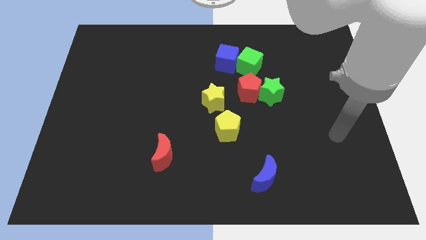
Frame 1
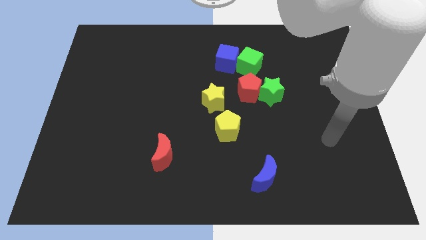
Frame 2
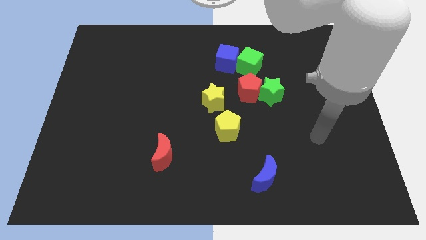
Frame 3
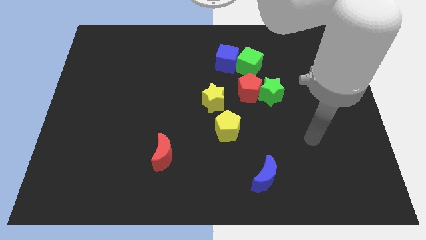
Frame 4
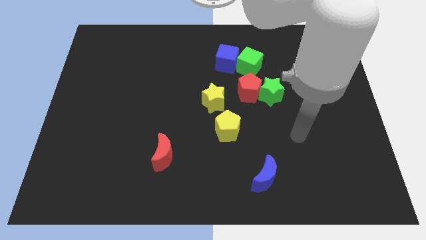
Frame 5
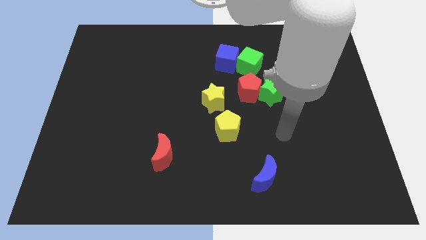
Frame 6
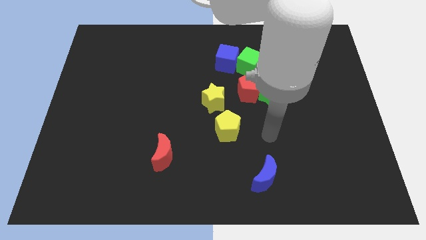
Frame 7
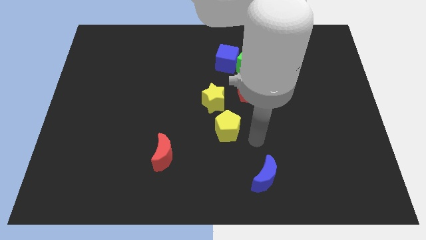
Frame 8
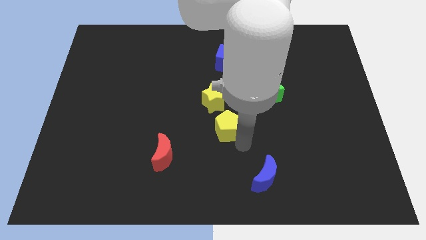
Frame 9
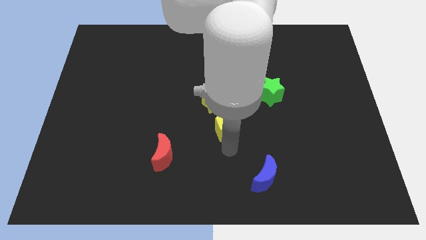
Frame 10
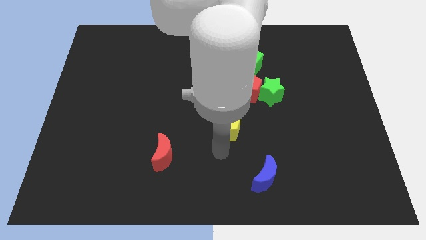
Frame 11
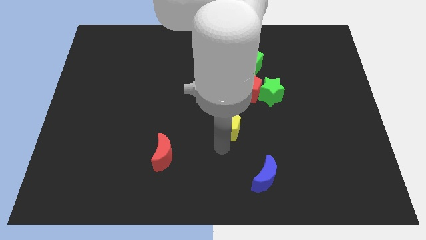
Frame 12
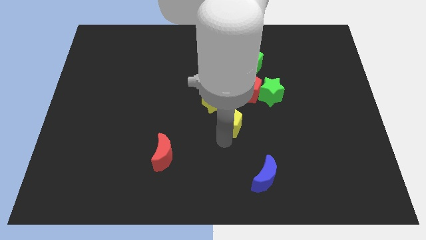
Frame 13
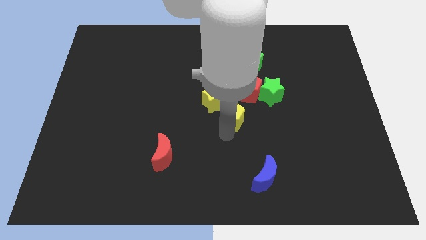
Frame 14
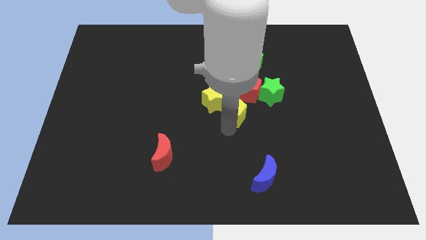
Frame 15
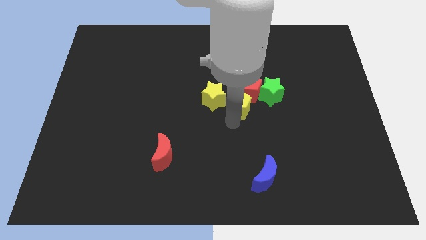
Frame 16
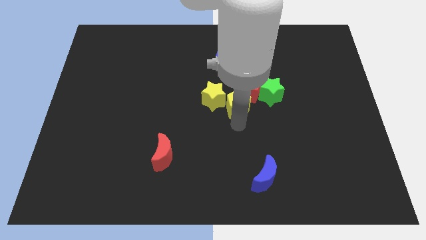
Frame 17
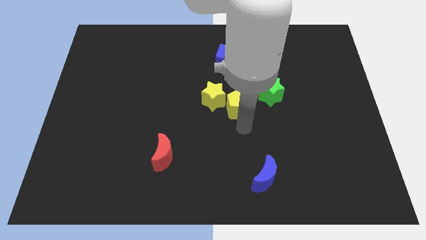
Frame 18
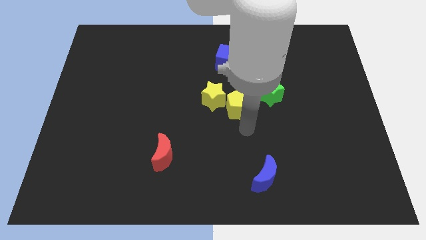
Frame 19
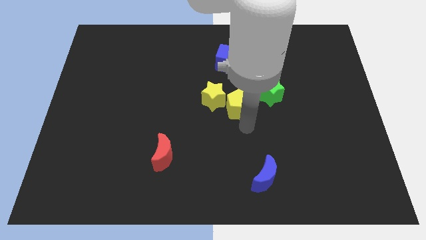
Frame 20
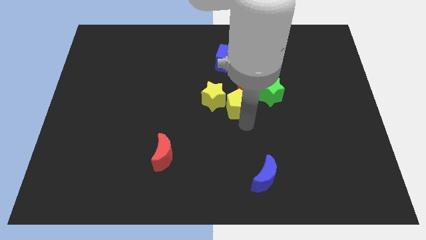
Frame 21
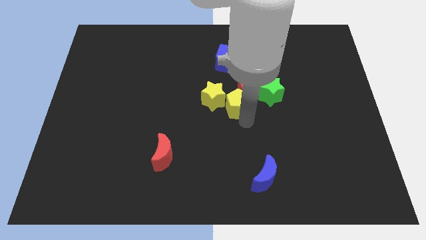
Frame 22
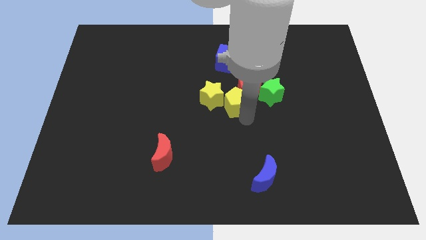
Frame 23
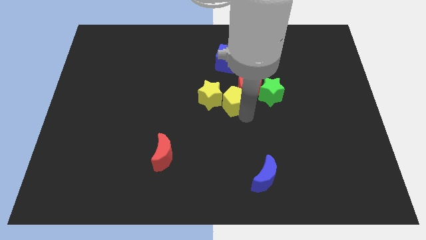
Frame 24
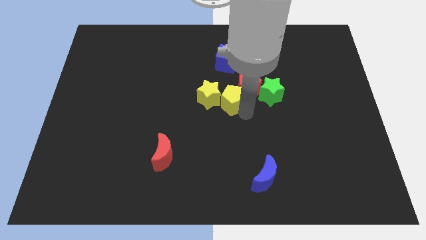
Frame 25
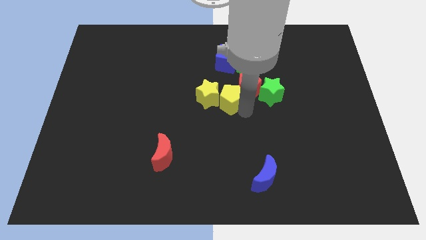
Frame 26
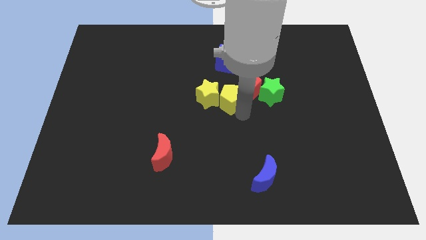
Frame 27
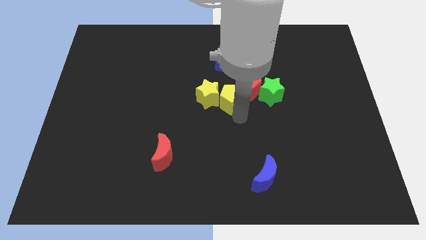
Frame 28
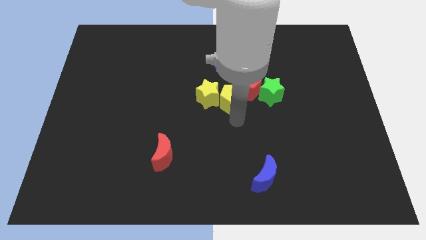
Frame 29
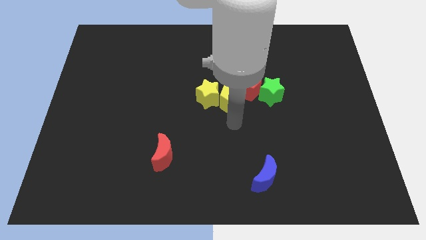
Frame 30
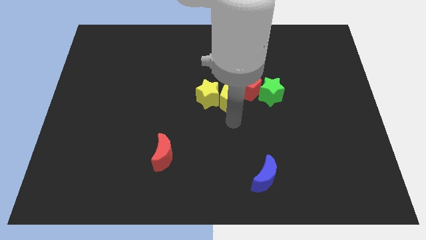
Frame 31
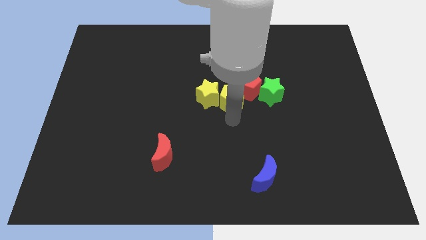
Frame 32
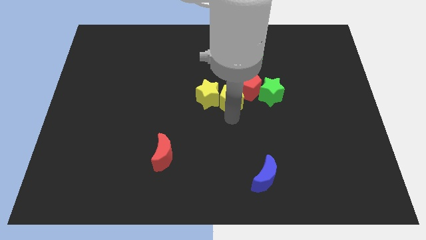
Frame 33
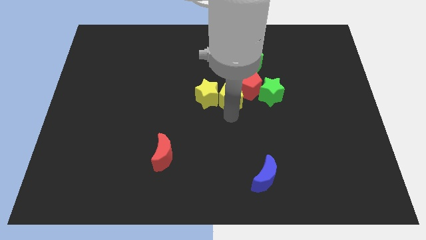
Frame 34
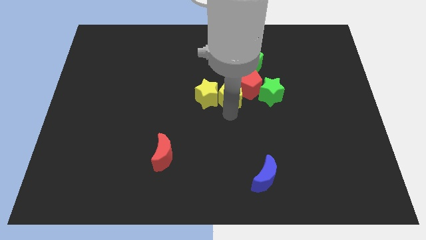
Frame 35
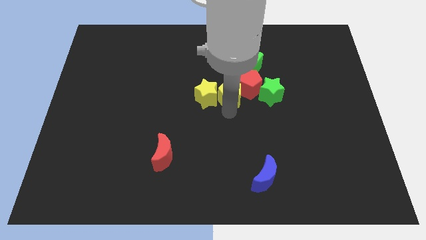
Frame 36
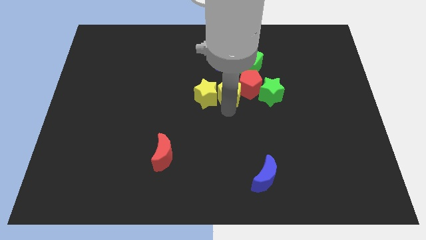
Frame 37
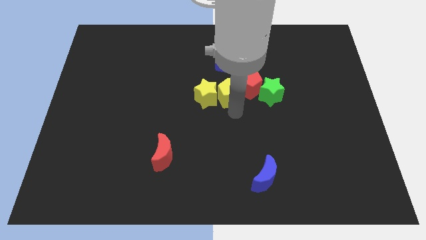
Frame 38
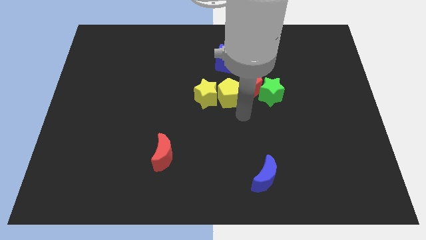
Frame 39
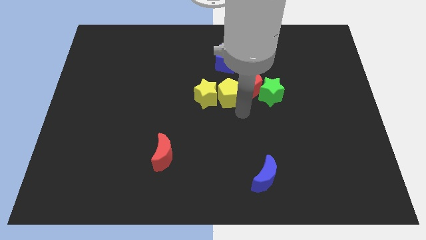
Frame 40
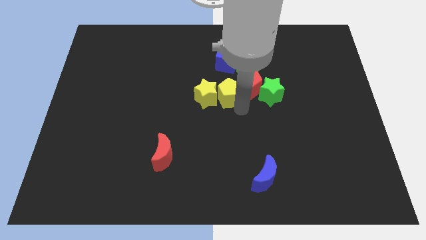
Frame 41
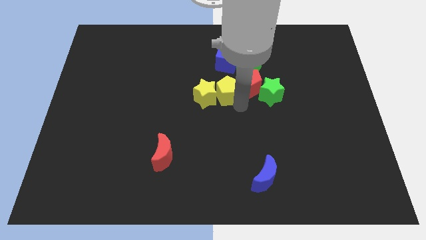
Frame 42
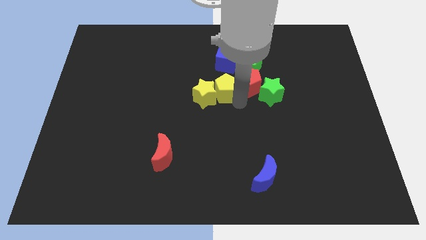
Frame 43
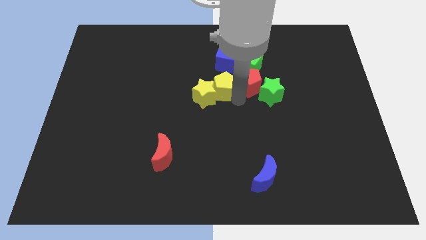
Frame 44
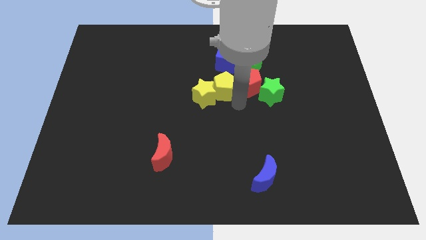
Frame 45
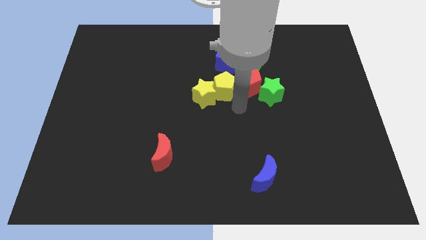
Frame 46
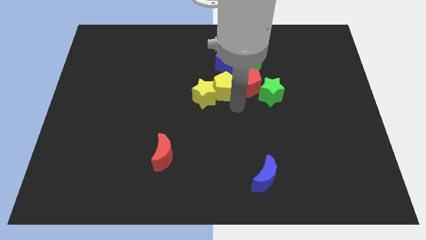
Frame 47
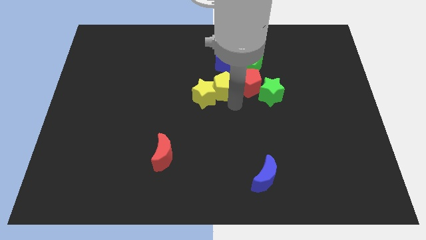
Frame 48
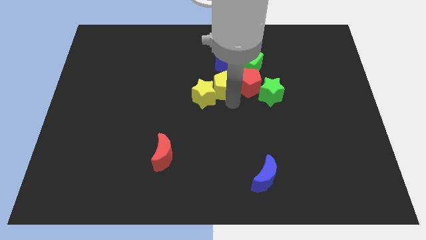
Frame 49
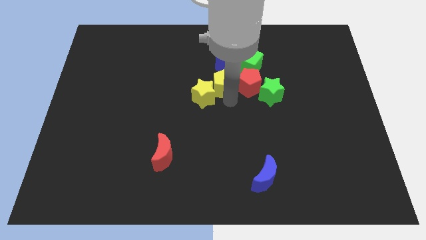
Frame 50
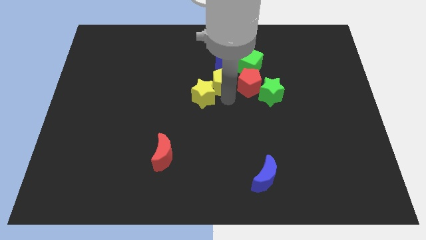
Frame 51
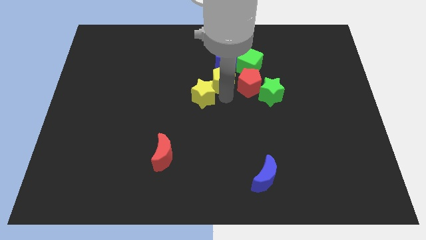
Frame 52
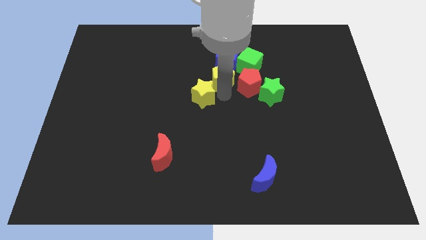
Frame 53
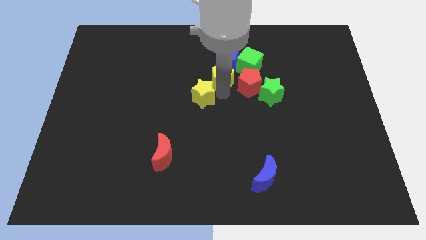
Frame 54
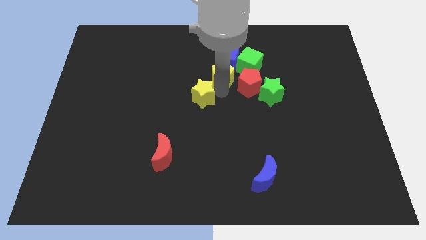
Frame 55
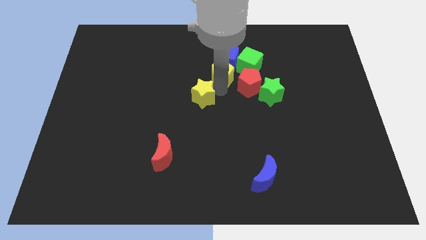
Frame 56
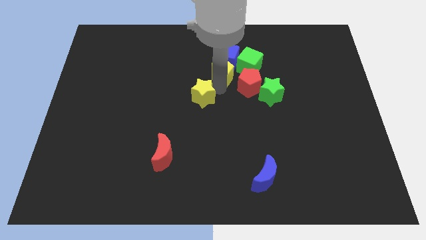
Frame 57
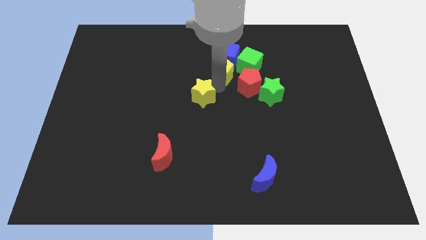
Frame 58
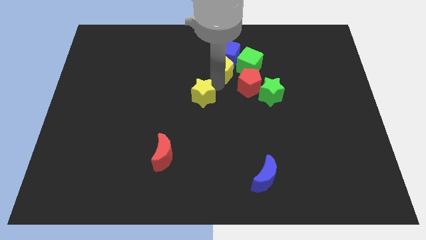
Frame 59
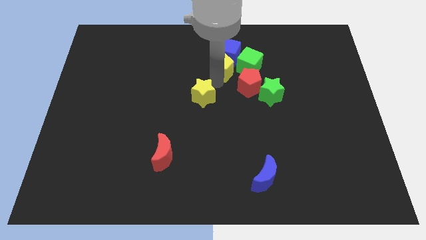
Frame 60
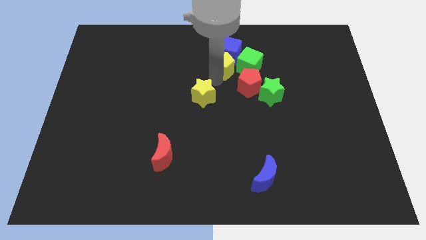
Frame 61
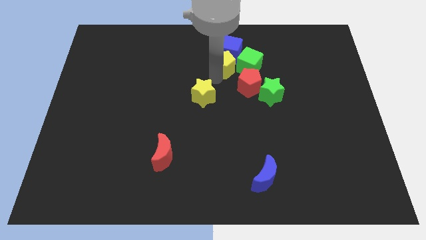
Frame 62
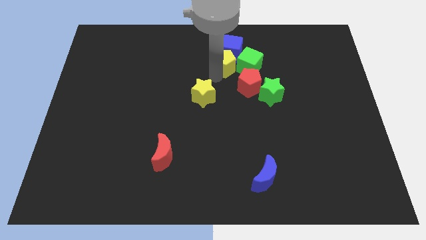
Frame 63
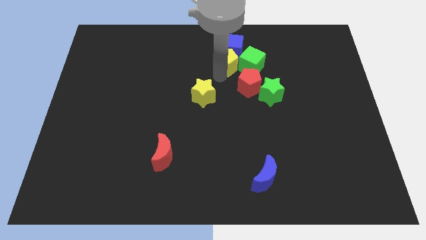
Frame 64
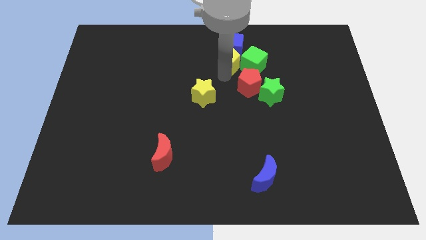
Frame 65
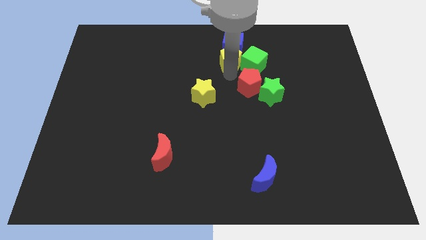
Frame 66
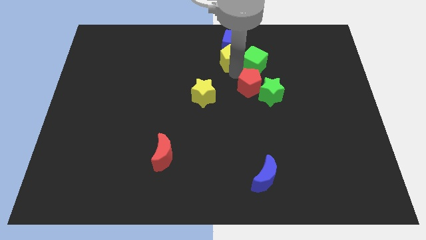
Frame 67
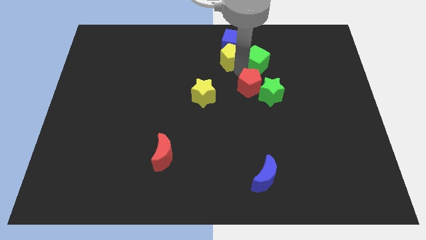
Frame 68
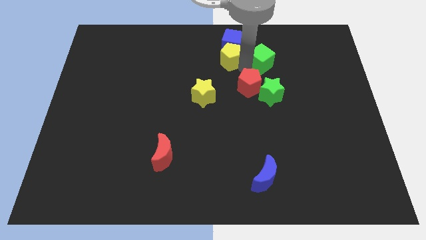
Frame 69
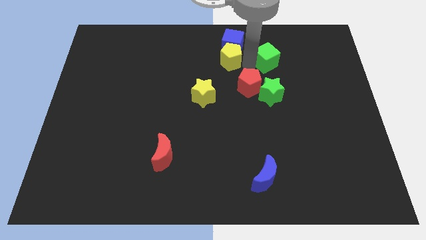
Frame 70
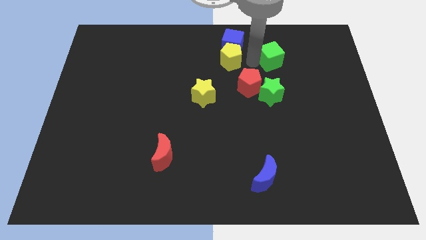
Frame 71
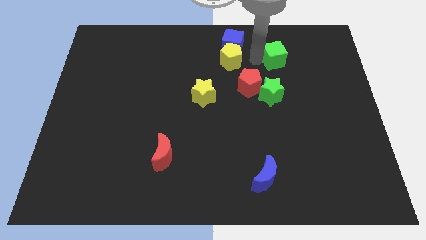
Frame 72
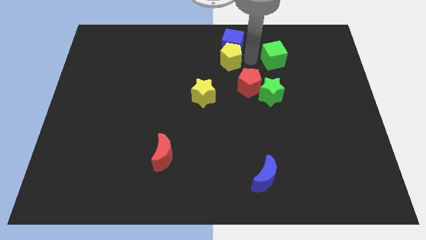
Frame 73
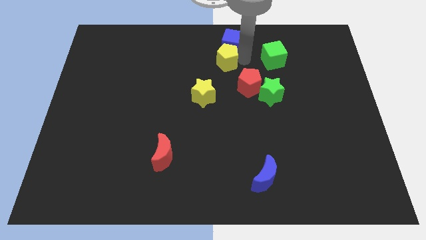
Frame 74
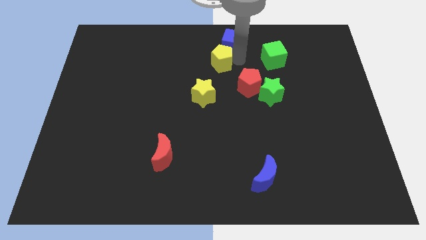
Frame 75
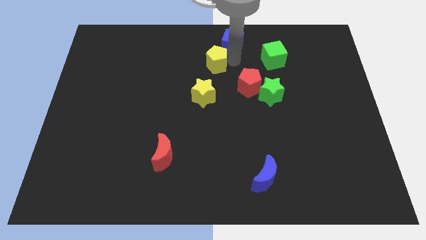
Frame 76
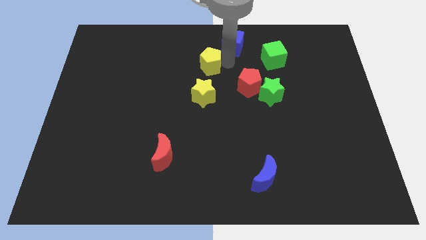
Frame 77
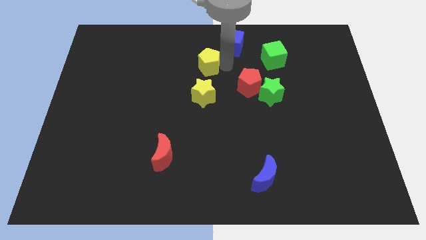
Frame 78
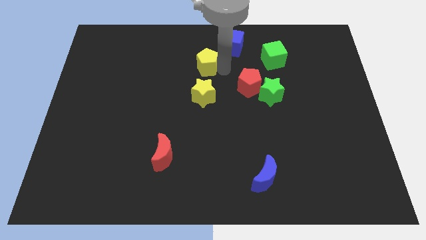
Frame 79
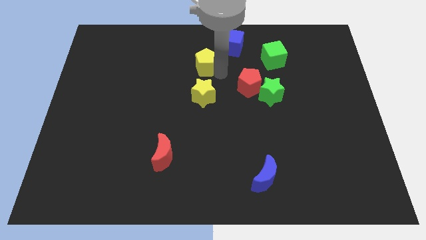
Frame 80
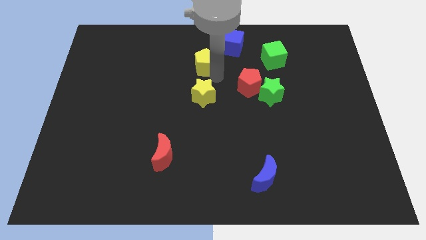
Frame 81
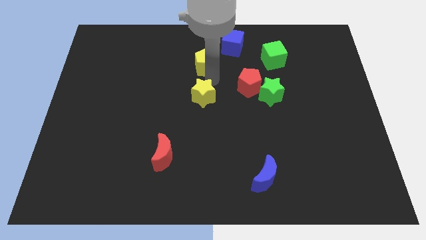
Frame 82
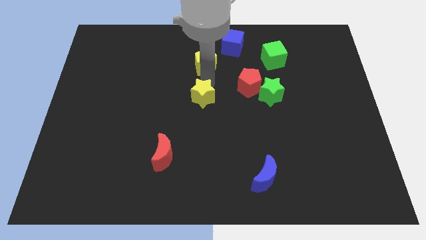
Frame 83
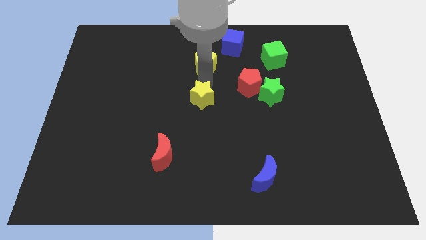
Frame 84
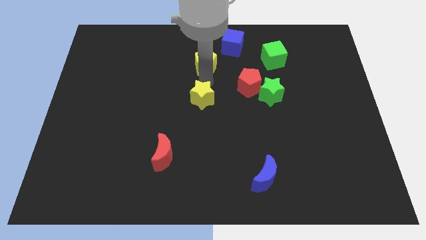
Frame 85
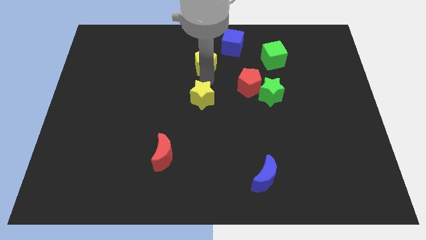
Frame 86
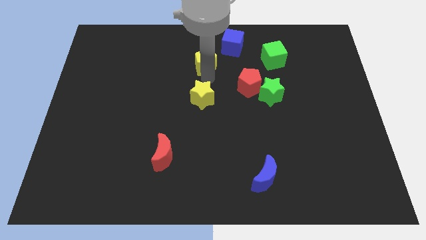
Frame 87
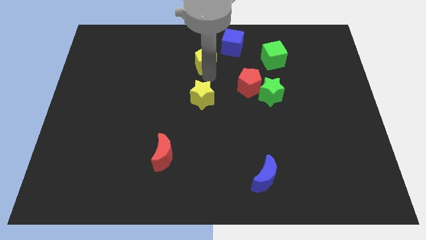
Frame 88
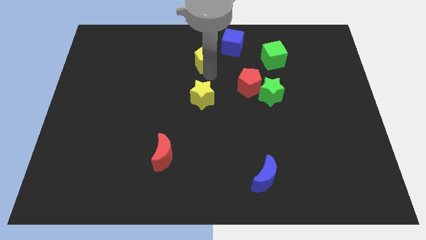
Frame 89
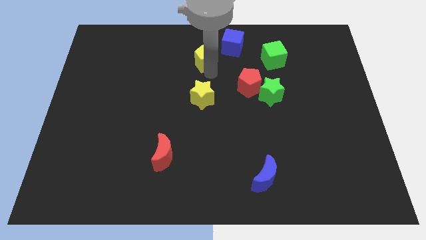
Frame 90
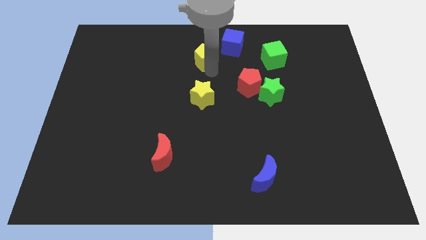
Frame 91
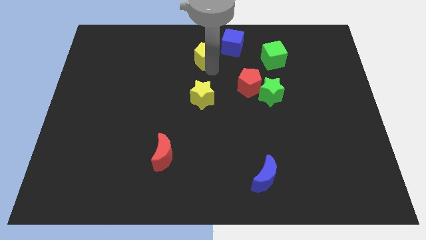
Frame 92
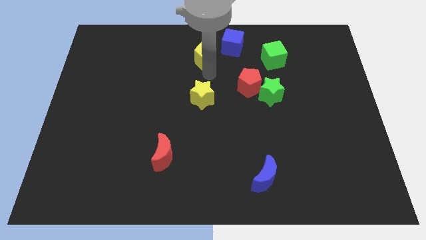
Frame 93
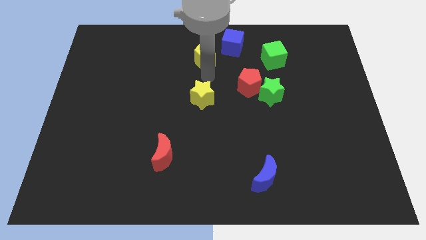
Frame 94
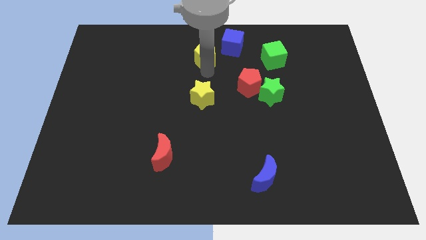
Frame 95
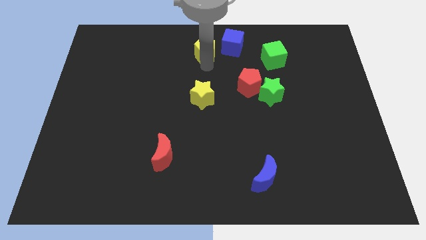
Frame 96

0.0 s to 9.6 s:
move the yellow pentagon to the top
